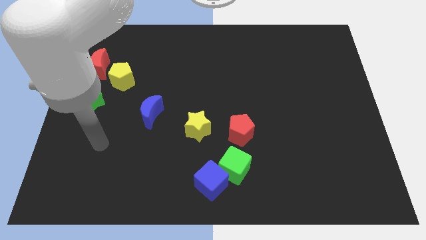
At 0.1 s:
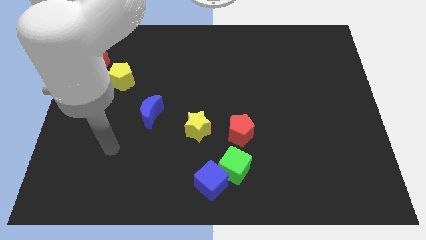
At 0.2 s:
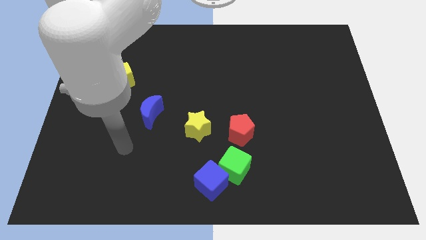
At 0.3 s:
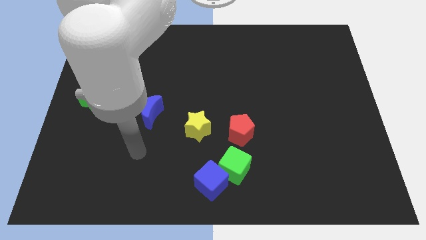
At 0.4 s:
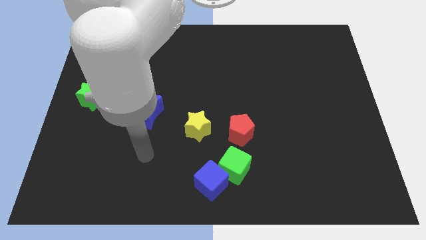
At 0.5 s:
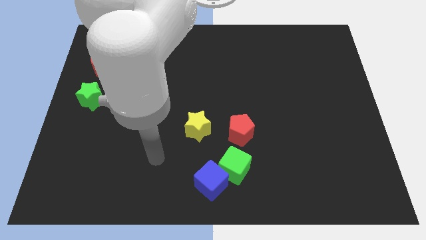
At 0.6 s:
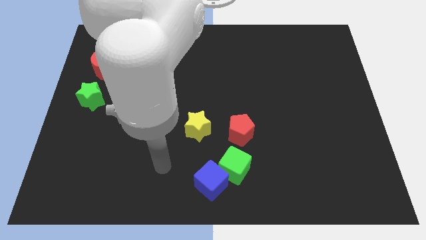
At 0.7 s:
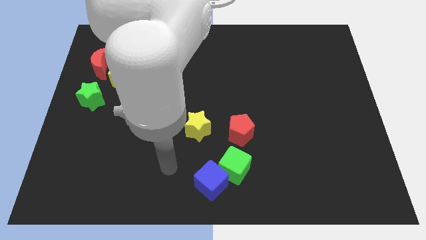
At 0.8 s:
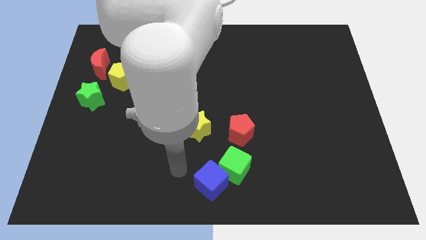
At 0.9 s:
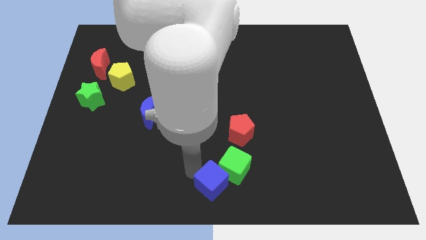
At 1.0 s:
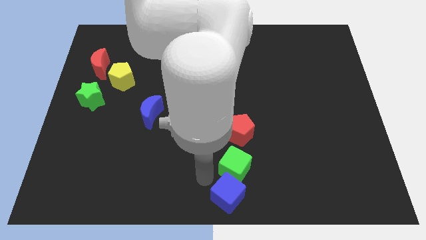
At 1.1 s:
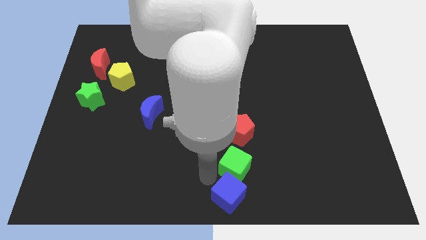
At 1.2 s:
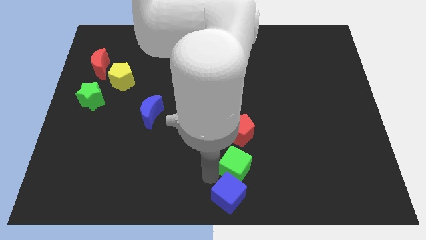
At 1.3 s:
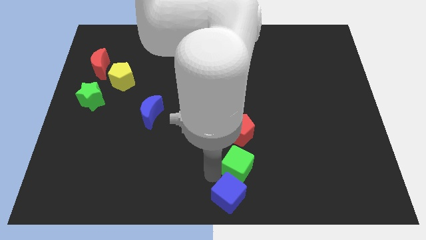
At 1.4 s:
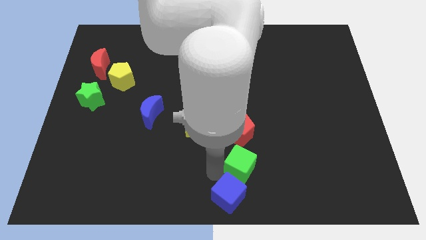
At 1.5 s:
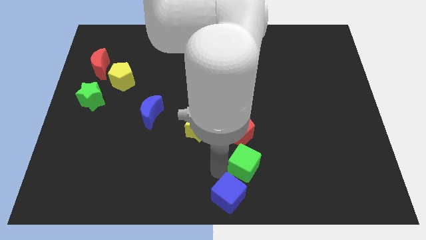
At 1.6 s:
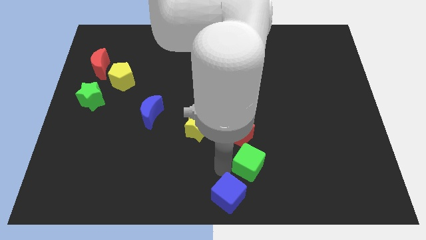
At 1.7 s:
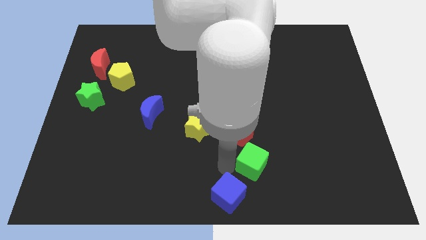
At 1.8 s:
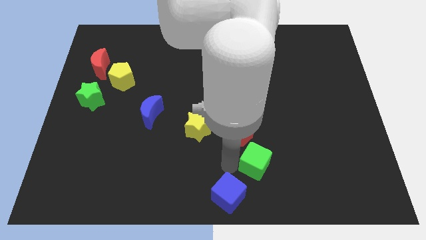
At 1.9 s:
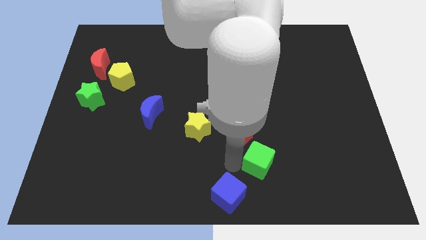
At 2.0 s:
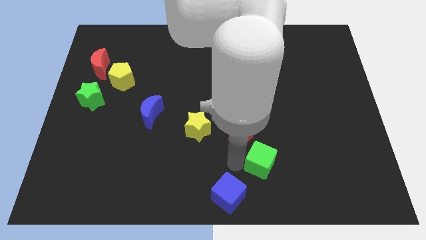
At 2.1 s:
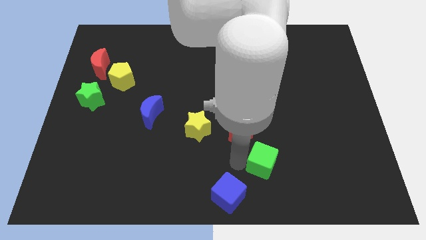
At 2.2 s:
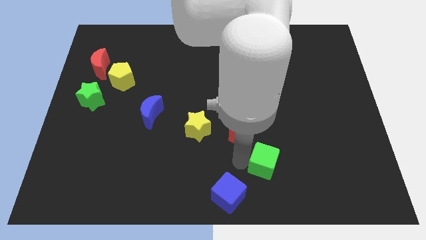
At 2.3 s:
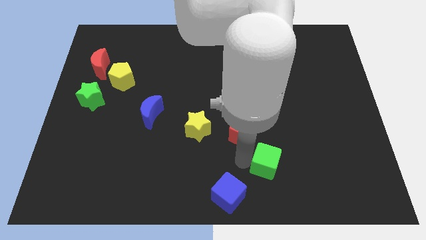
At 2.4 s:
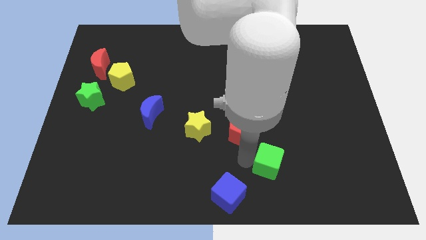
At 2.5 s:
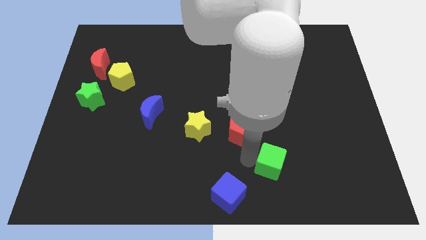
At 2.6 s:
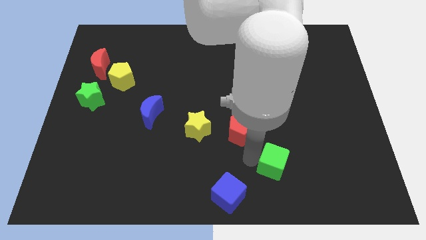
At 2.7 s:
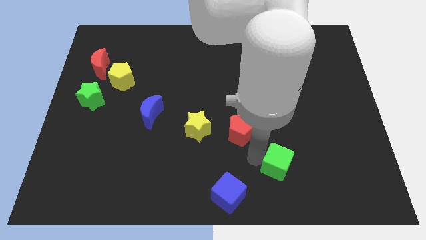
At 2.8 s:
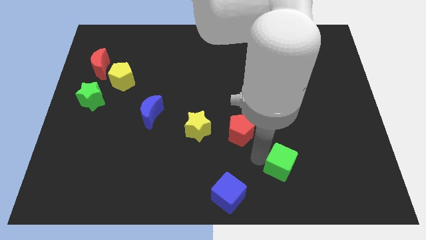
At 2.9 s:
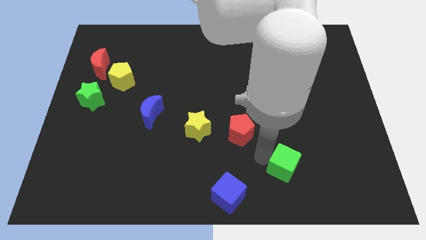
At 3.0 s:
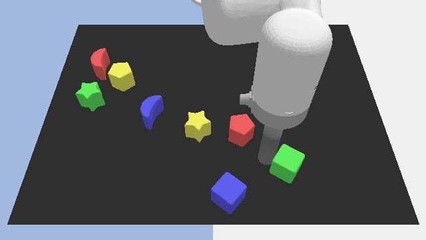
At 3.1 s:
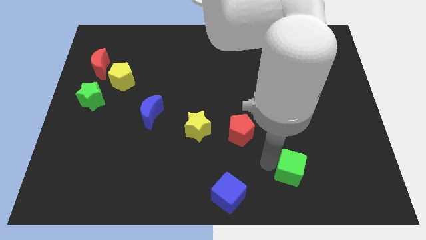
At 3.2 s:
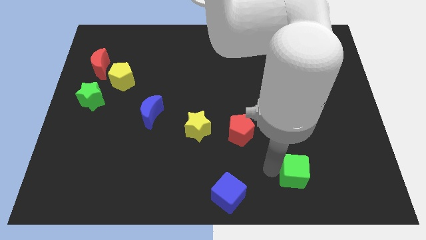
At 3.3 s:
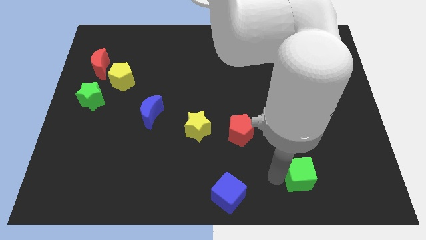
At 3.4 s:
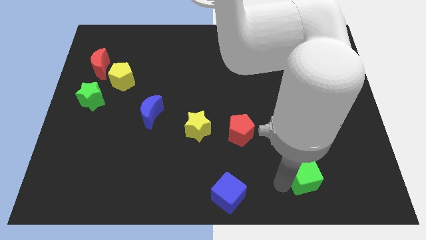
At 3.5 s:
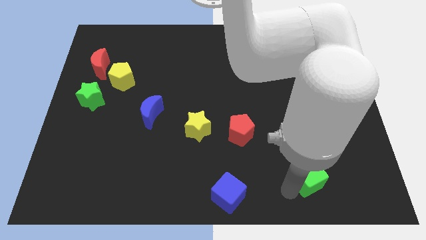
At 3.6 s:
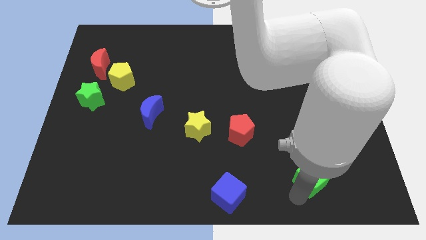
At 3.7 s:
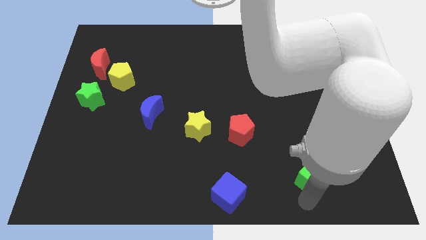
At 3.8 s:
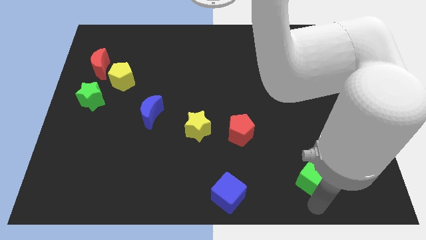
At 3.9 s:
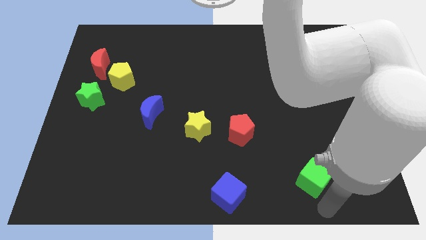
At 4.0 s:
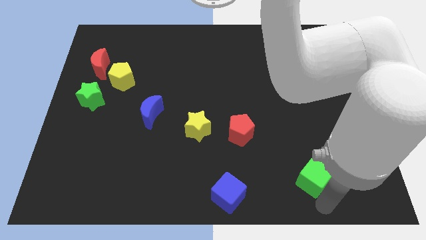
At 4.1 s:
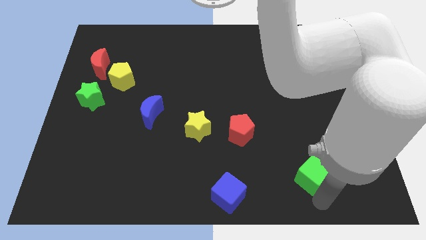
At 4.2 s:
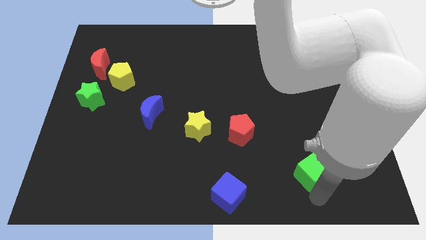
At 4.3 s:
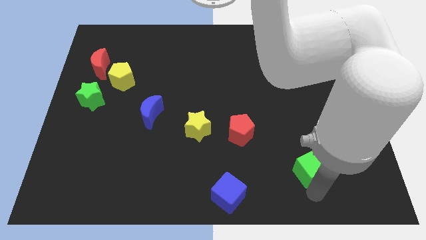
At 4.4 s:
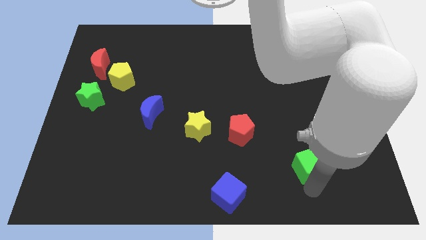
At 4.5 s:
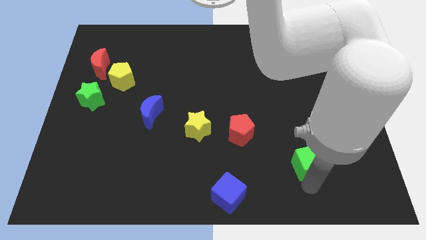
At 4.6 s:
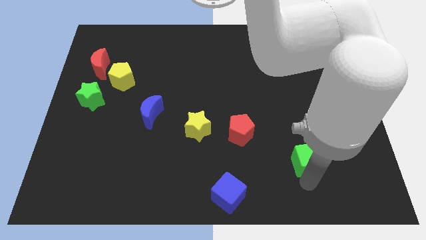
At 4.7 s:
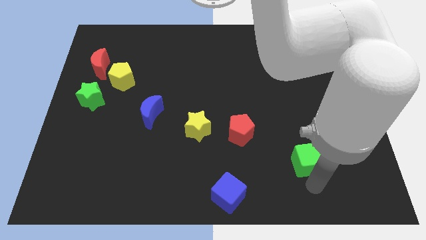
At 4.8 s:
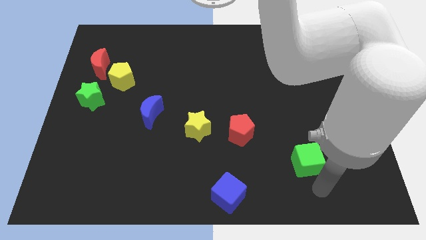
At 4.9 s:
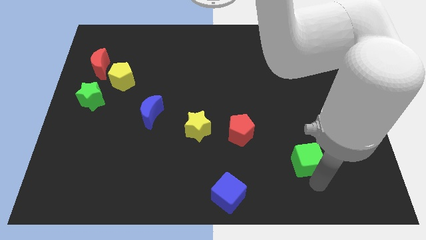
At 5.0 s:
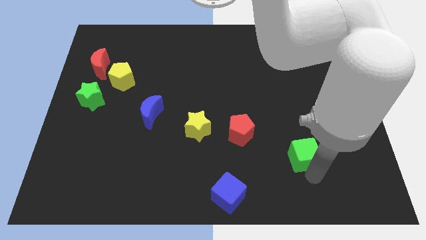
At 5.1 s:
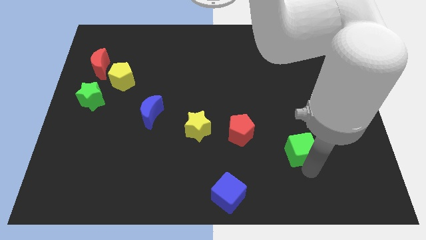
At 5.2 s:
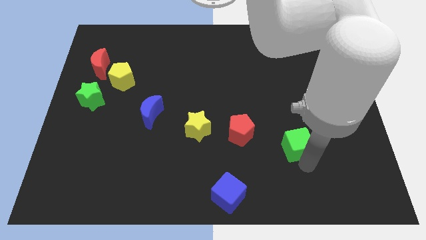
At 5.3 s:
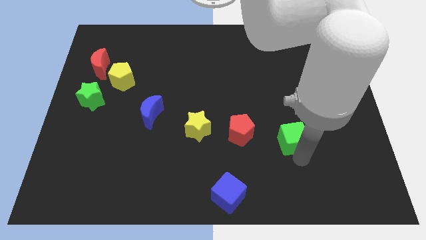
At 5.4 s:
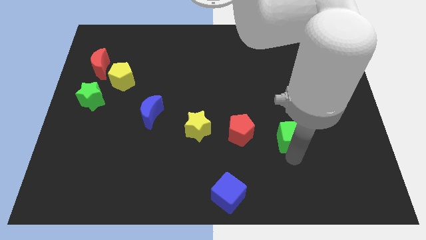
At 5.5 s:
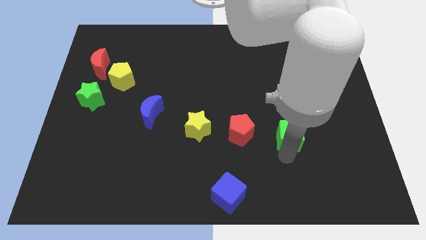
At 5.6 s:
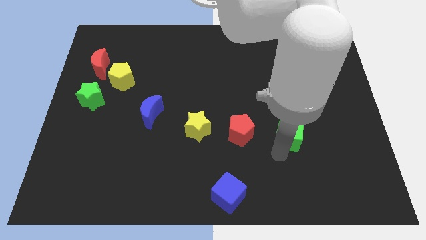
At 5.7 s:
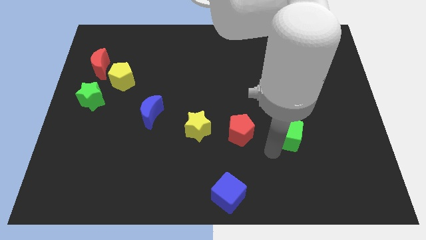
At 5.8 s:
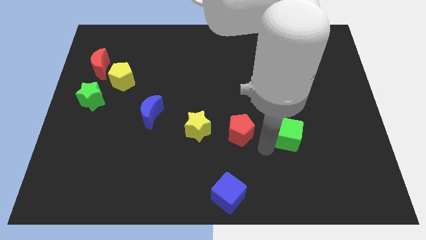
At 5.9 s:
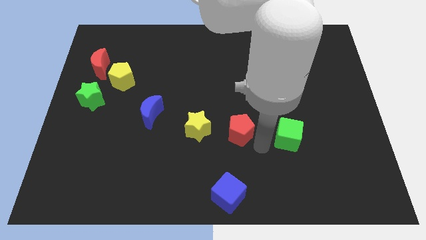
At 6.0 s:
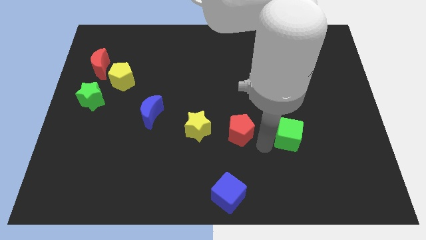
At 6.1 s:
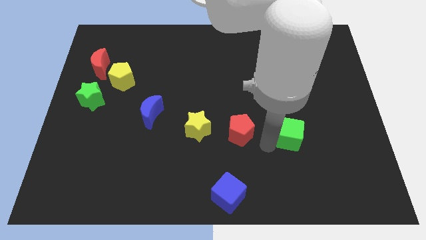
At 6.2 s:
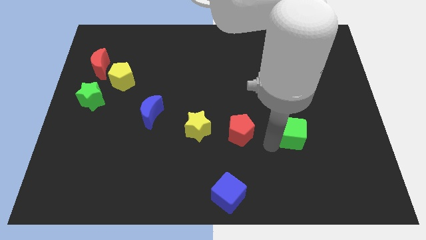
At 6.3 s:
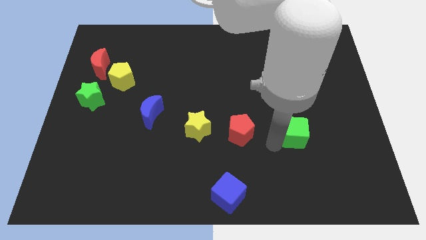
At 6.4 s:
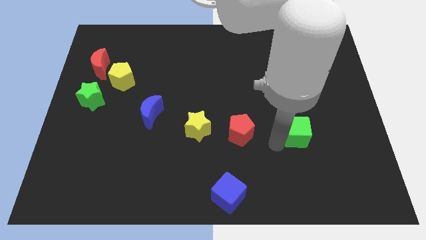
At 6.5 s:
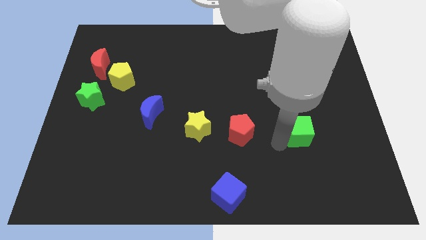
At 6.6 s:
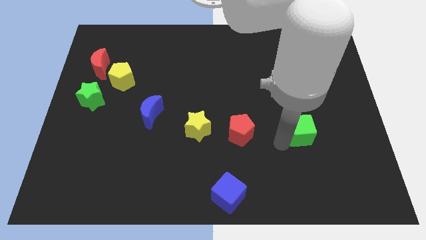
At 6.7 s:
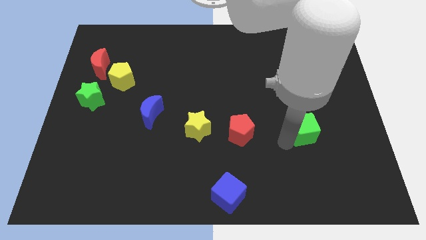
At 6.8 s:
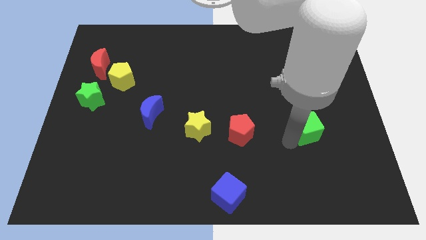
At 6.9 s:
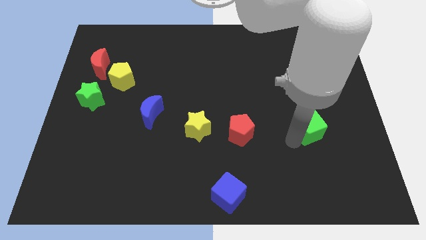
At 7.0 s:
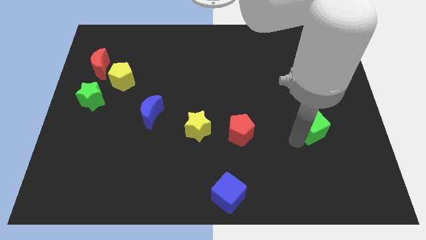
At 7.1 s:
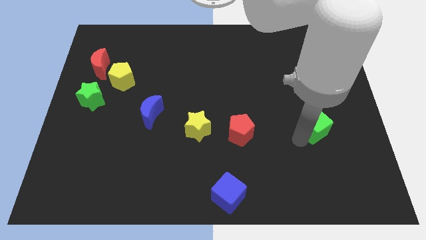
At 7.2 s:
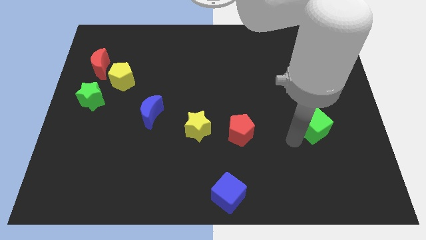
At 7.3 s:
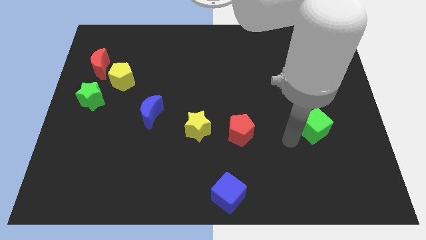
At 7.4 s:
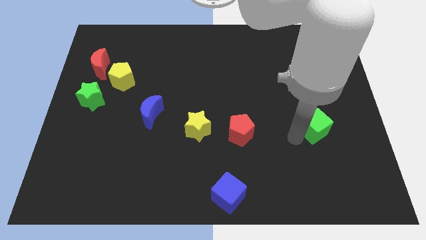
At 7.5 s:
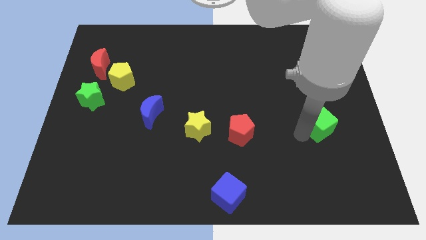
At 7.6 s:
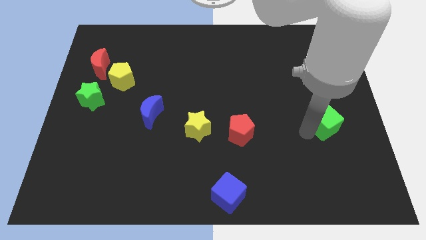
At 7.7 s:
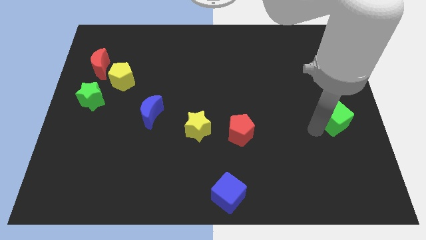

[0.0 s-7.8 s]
push the green cube to the right side of the board
